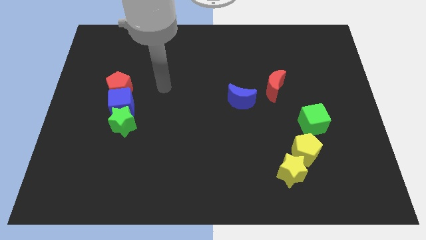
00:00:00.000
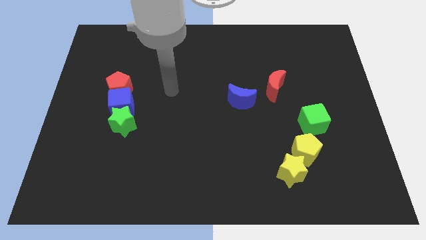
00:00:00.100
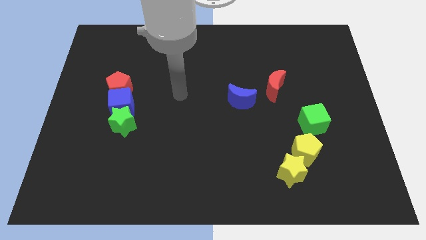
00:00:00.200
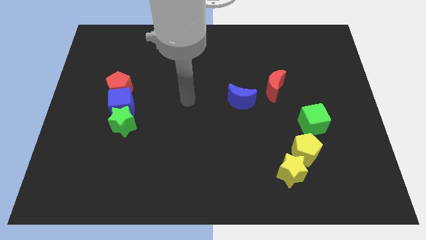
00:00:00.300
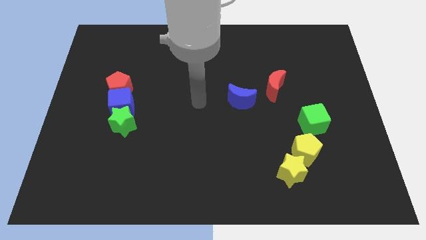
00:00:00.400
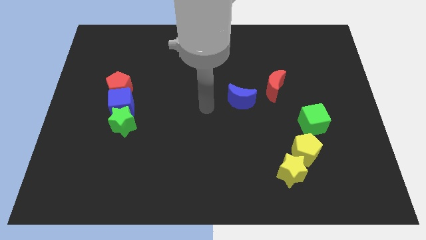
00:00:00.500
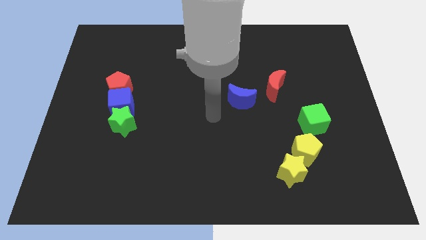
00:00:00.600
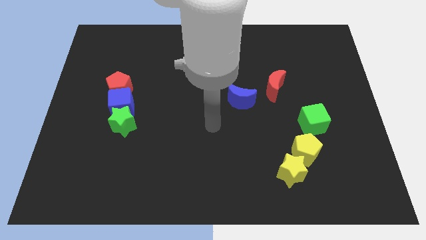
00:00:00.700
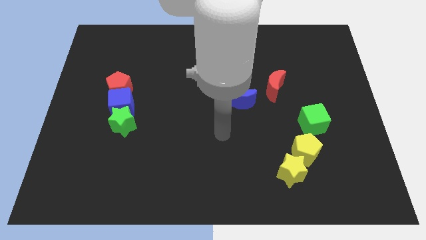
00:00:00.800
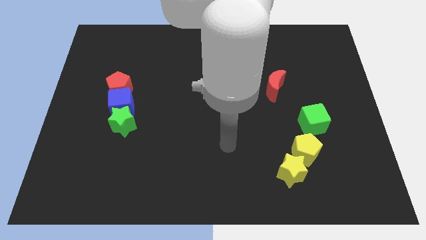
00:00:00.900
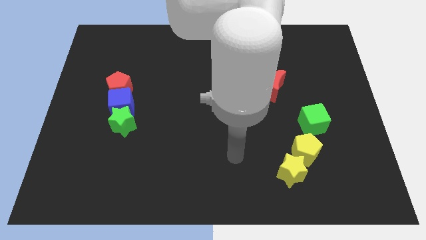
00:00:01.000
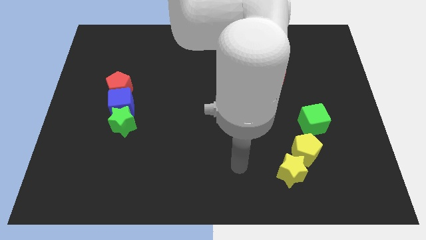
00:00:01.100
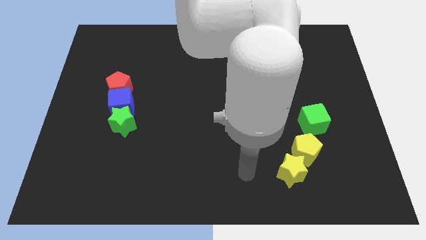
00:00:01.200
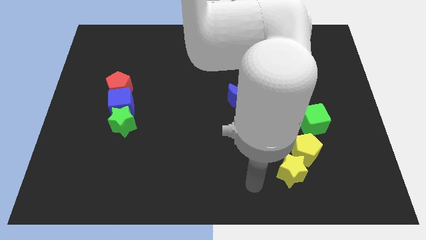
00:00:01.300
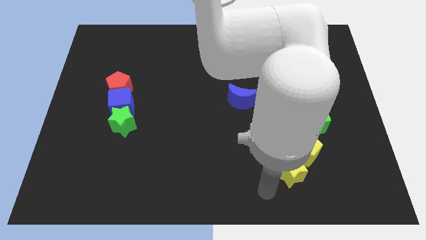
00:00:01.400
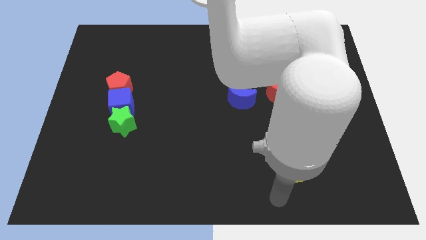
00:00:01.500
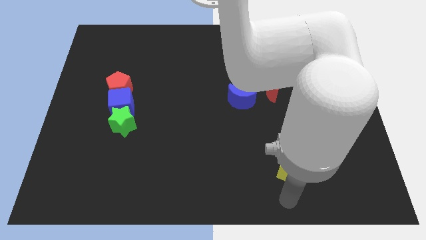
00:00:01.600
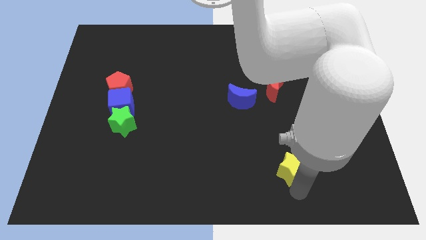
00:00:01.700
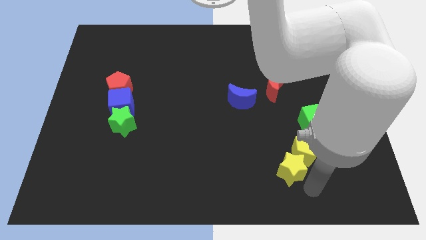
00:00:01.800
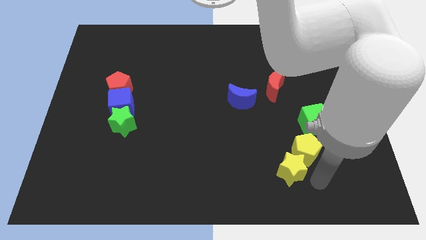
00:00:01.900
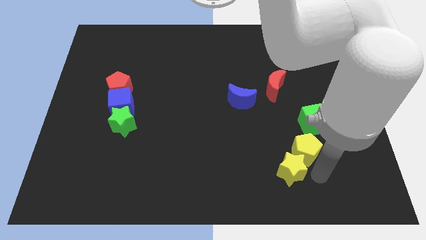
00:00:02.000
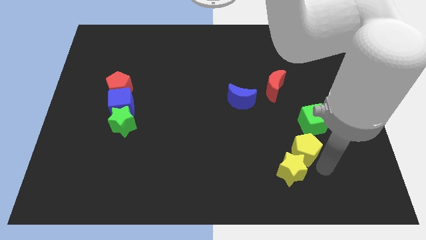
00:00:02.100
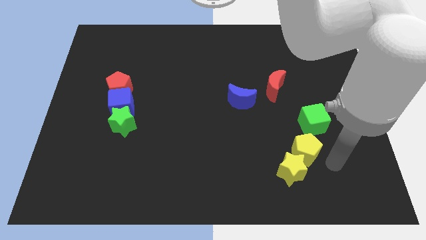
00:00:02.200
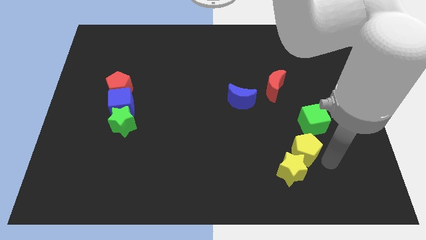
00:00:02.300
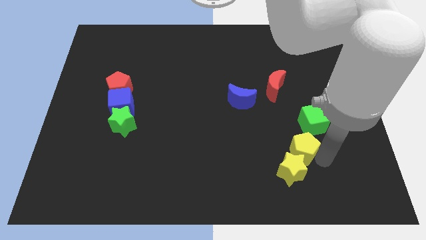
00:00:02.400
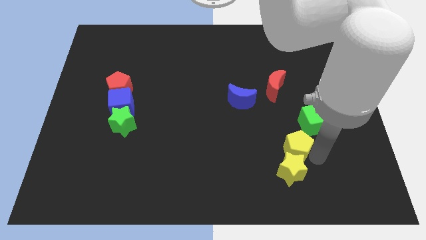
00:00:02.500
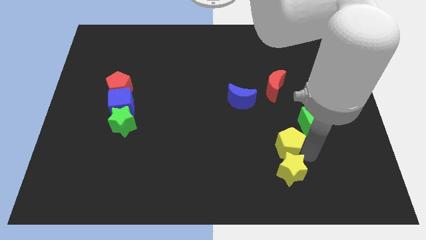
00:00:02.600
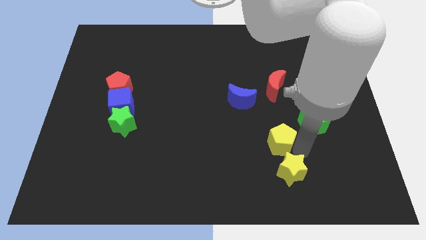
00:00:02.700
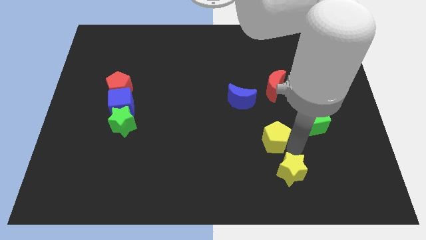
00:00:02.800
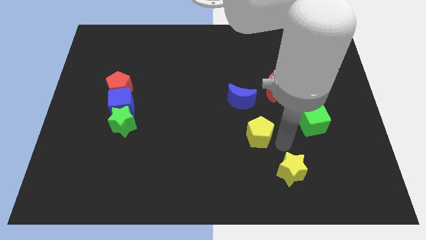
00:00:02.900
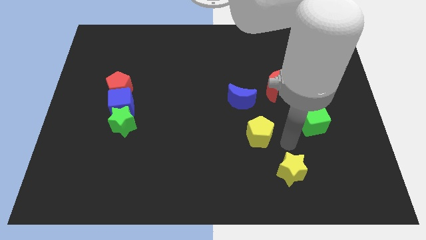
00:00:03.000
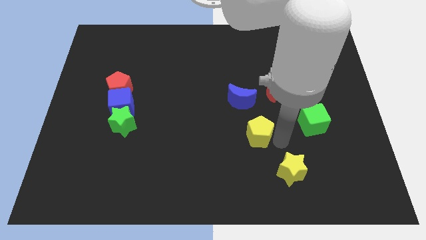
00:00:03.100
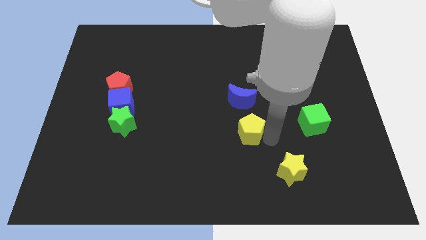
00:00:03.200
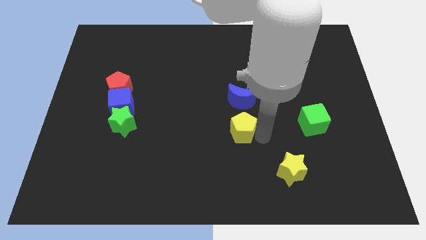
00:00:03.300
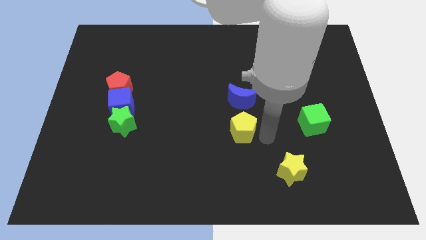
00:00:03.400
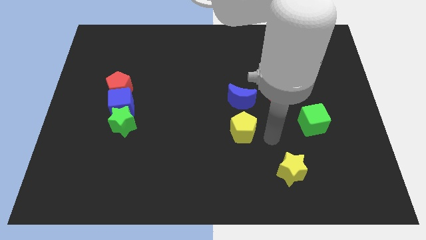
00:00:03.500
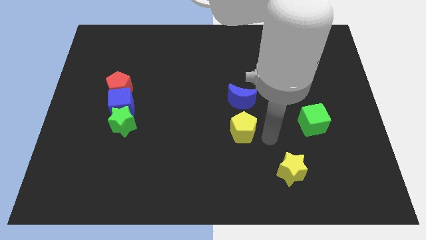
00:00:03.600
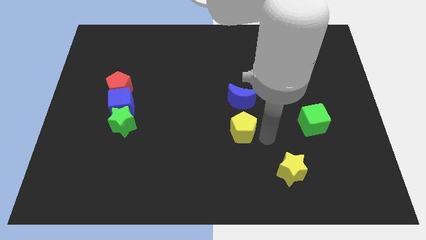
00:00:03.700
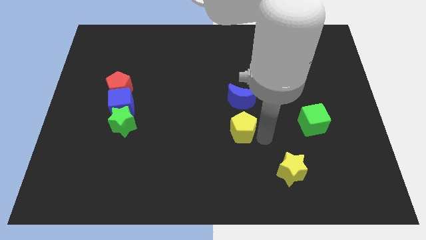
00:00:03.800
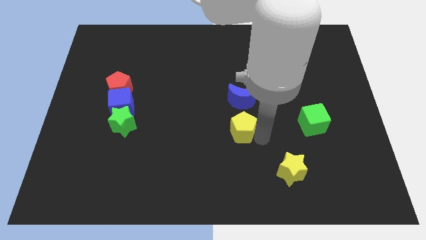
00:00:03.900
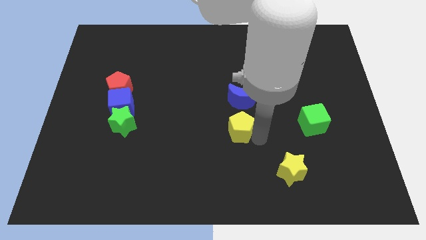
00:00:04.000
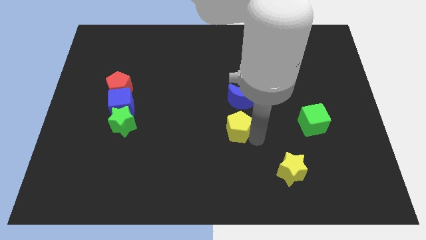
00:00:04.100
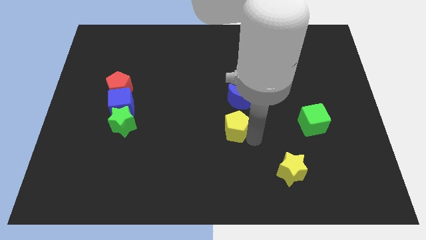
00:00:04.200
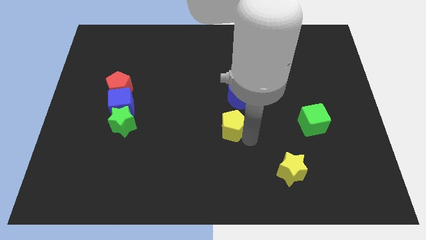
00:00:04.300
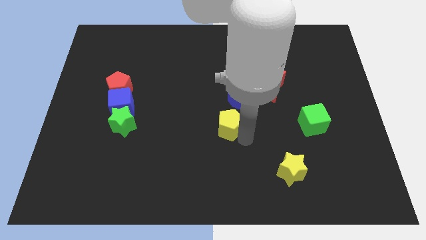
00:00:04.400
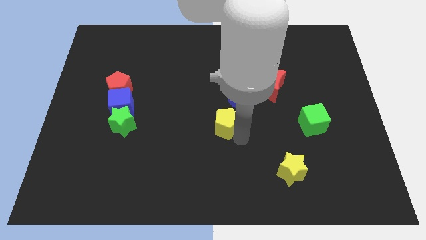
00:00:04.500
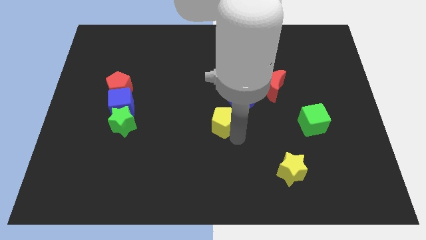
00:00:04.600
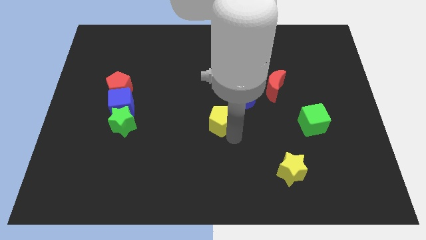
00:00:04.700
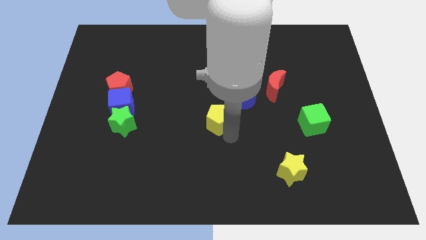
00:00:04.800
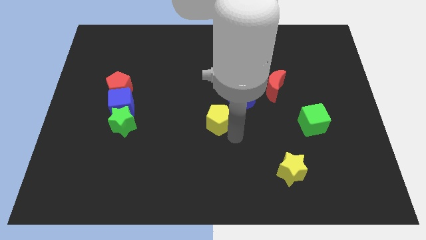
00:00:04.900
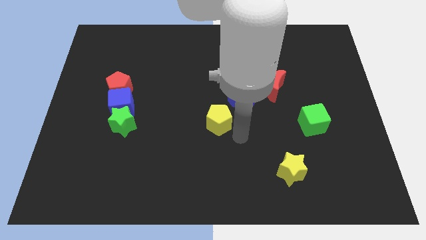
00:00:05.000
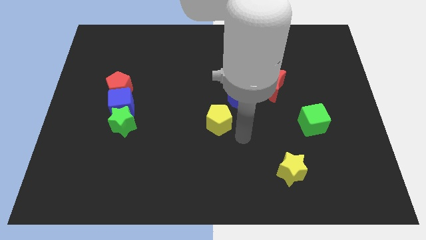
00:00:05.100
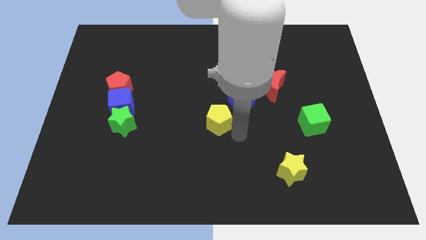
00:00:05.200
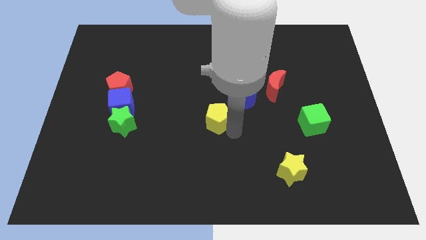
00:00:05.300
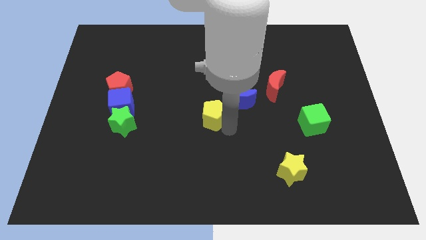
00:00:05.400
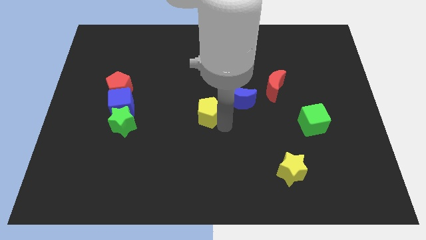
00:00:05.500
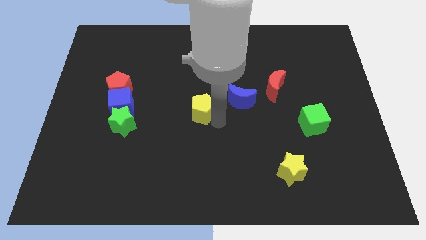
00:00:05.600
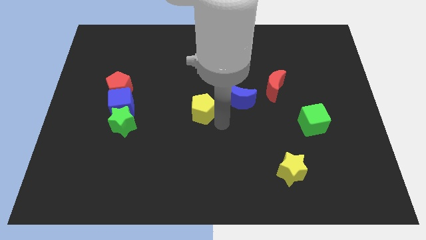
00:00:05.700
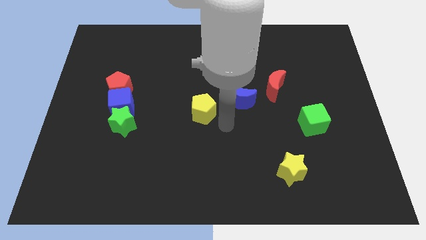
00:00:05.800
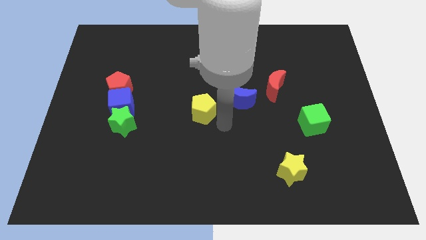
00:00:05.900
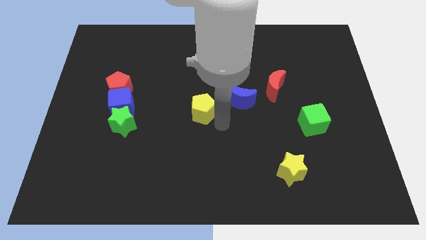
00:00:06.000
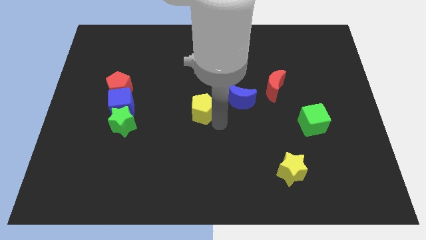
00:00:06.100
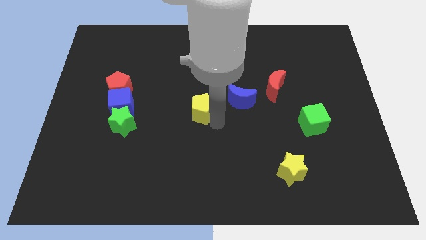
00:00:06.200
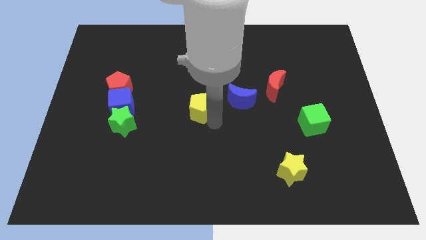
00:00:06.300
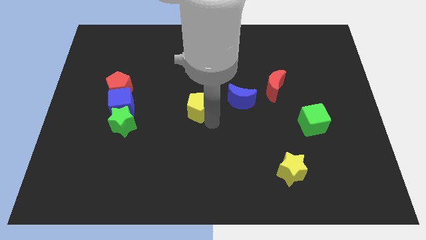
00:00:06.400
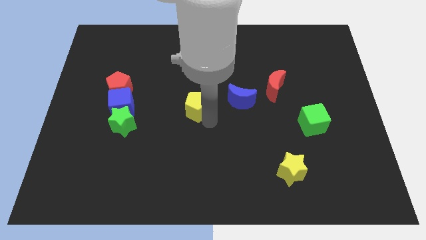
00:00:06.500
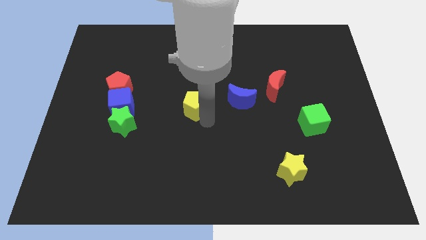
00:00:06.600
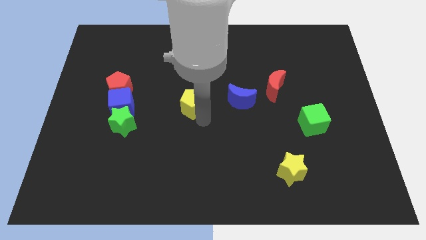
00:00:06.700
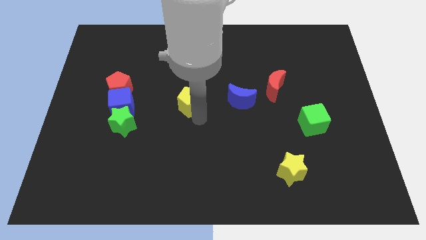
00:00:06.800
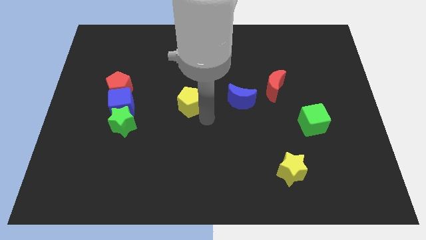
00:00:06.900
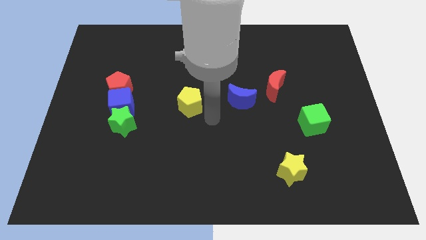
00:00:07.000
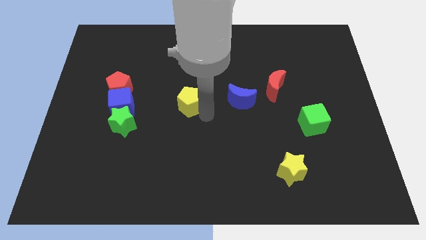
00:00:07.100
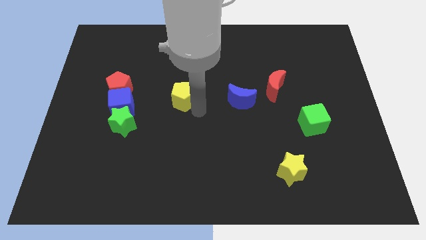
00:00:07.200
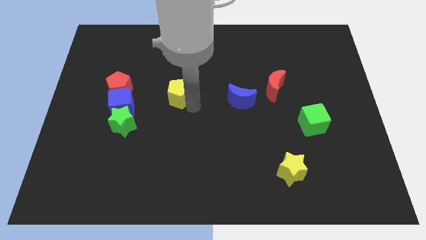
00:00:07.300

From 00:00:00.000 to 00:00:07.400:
push the yellow pentagon just right of the red pentagon
